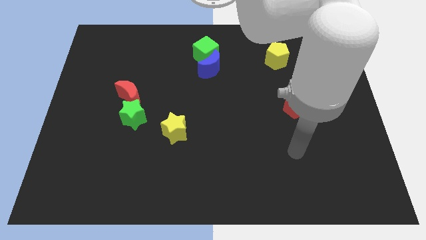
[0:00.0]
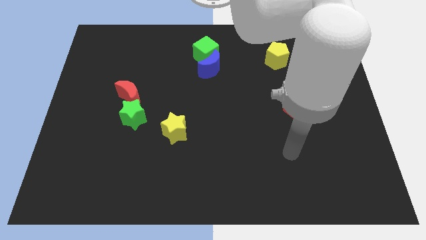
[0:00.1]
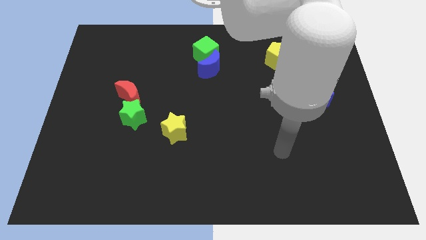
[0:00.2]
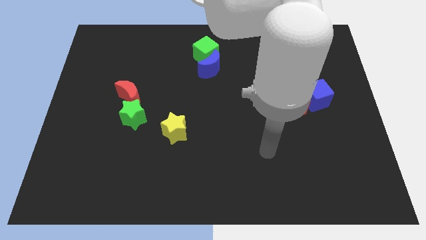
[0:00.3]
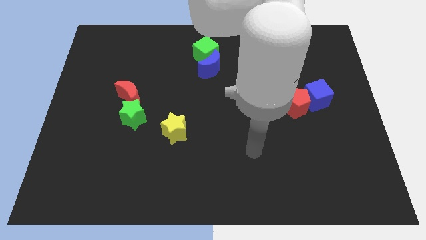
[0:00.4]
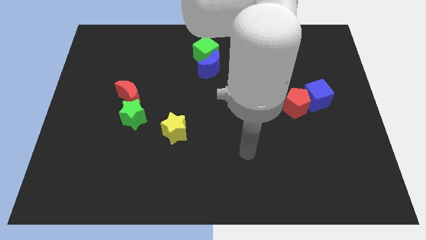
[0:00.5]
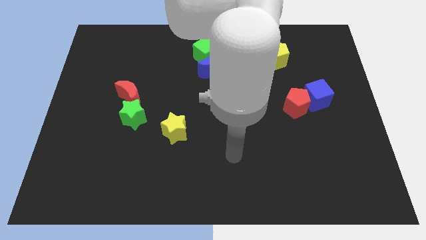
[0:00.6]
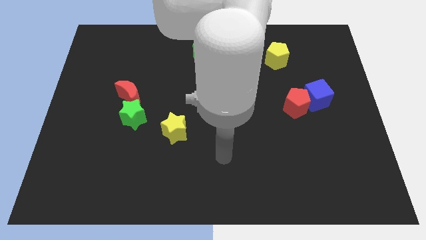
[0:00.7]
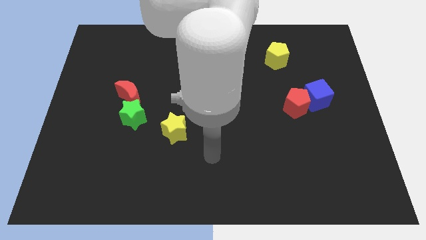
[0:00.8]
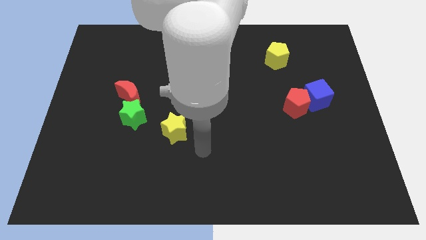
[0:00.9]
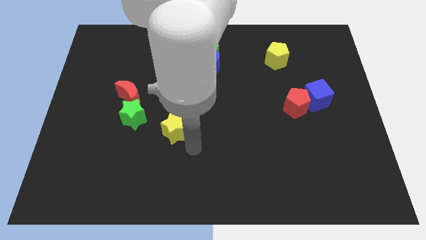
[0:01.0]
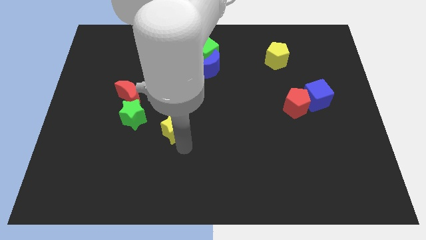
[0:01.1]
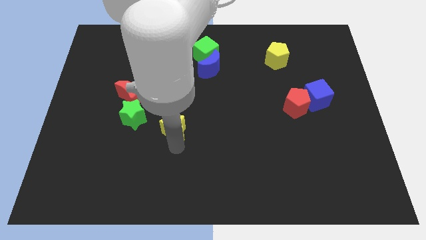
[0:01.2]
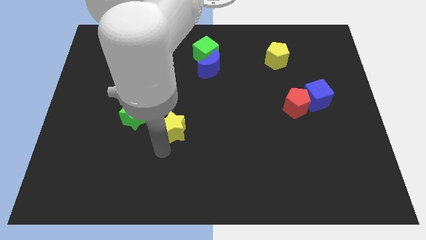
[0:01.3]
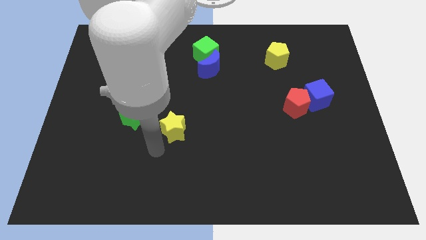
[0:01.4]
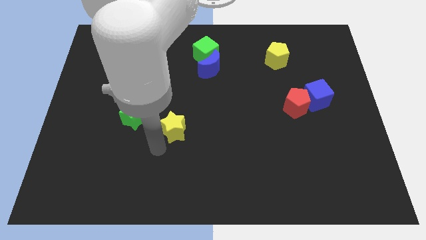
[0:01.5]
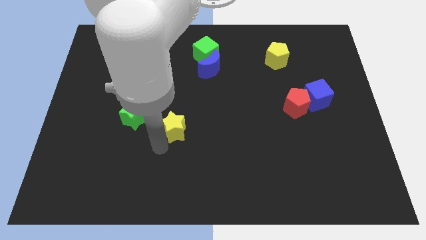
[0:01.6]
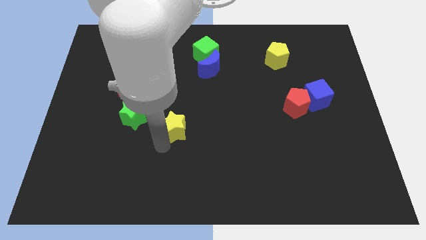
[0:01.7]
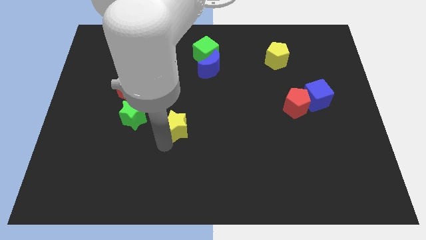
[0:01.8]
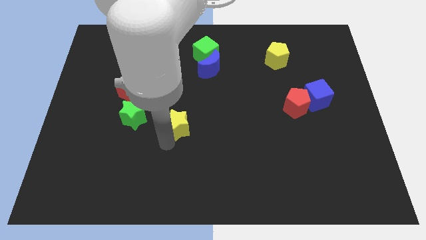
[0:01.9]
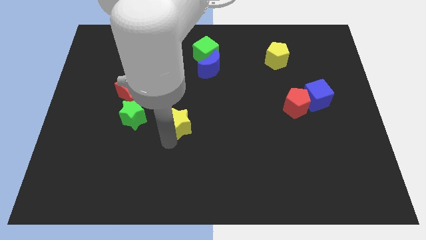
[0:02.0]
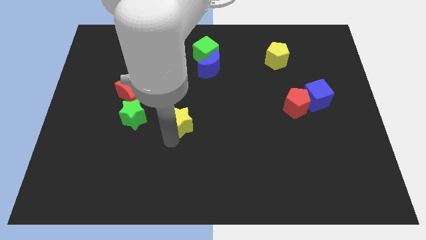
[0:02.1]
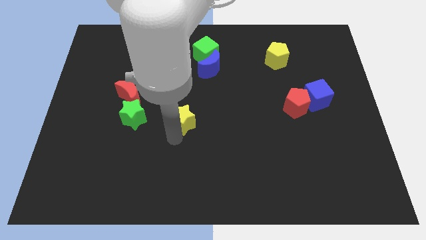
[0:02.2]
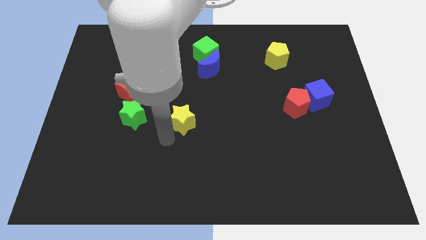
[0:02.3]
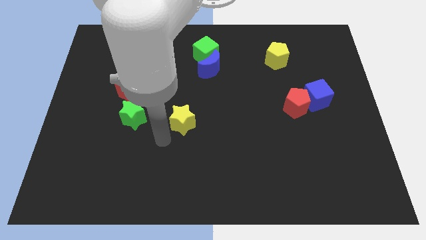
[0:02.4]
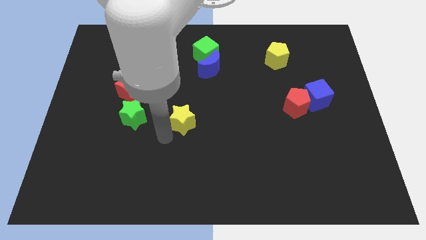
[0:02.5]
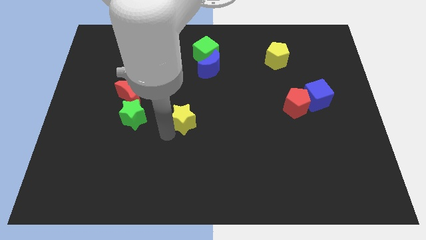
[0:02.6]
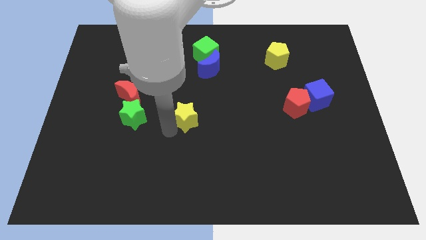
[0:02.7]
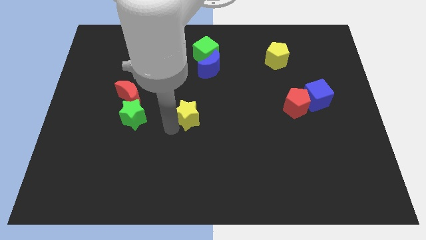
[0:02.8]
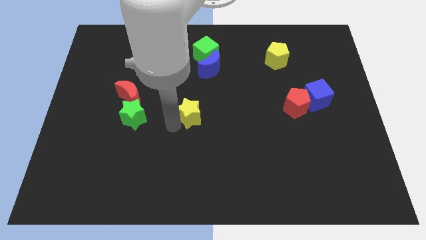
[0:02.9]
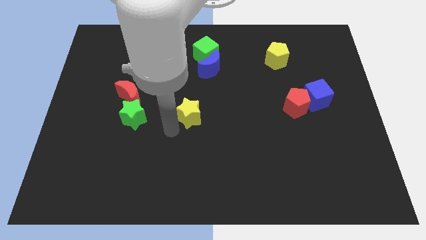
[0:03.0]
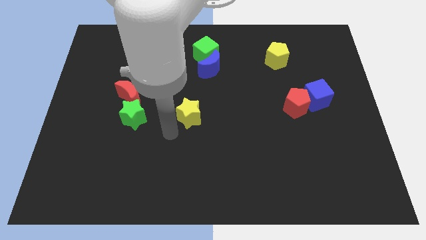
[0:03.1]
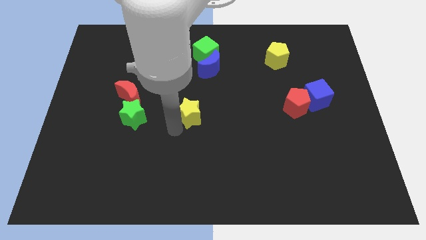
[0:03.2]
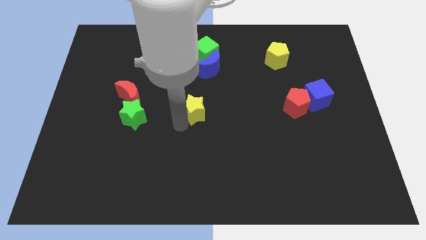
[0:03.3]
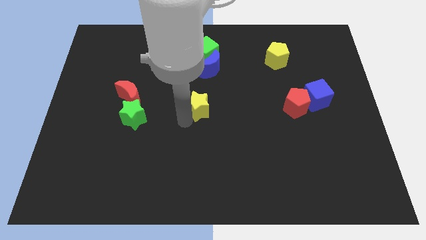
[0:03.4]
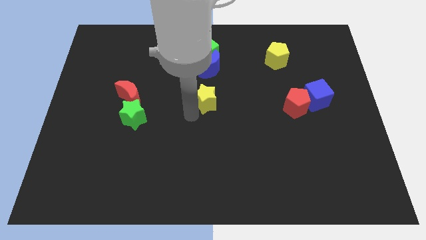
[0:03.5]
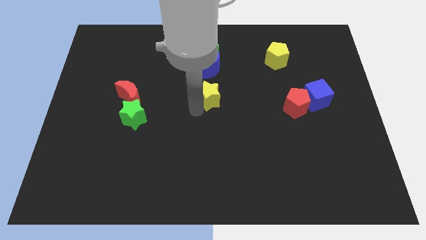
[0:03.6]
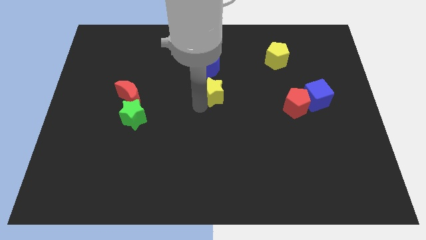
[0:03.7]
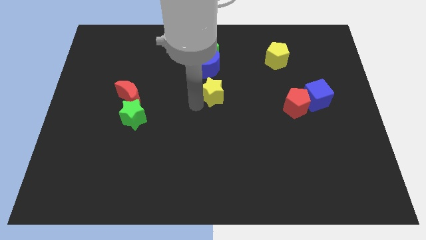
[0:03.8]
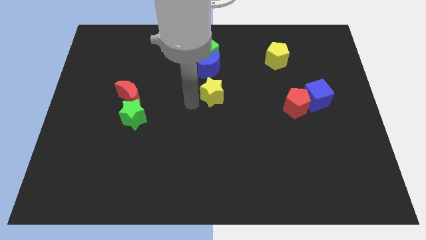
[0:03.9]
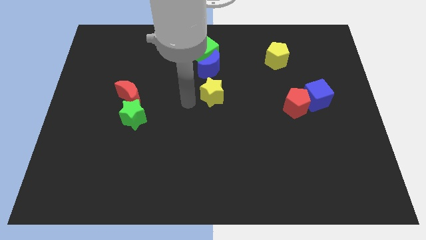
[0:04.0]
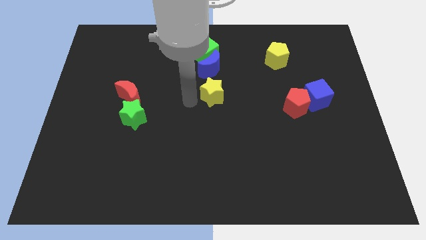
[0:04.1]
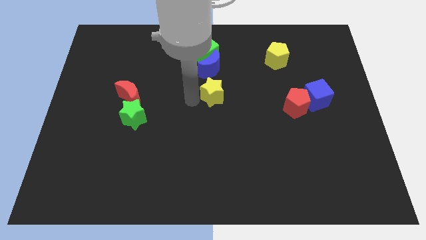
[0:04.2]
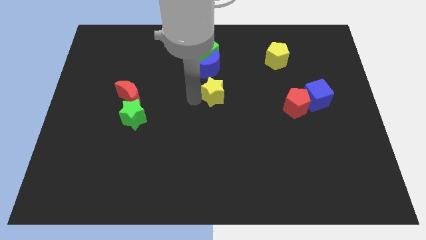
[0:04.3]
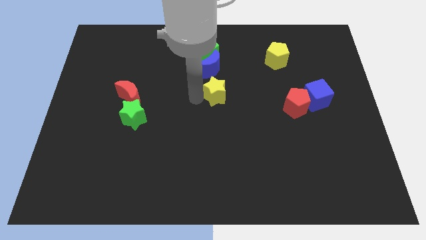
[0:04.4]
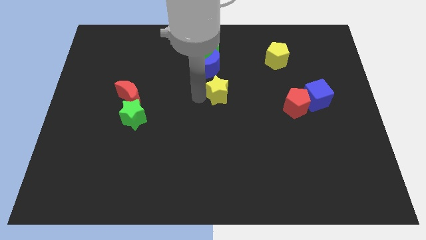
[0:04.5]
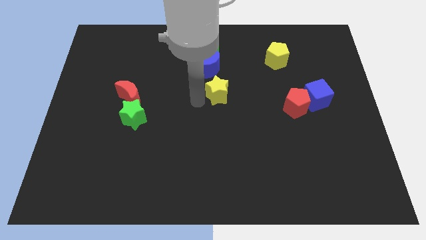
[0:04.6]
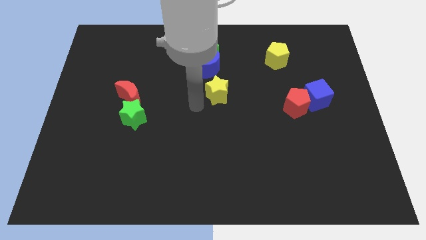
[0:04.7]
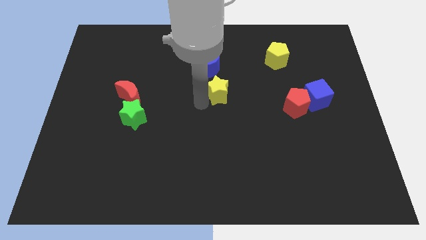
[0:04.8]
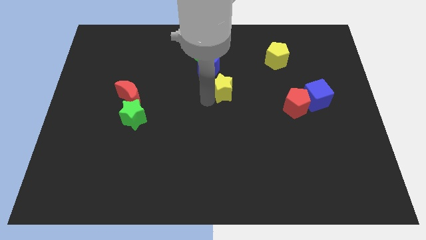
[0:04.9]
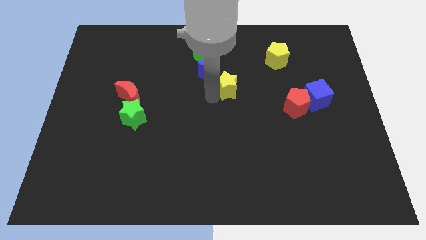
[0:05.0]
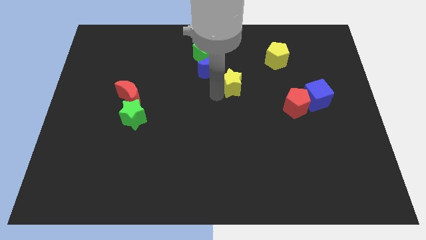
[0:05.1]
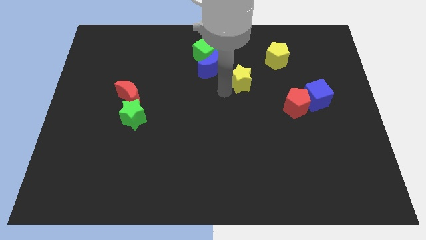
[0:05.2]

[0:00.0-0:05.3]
push the yellow star just right of the blue moon

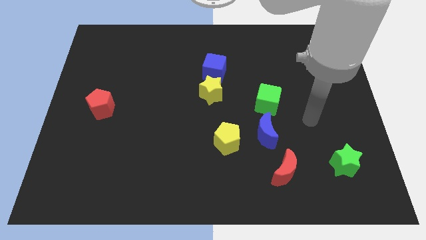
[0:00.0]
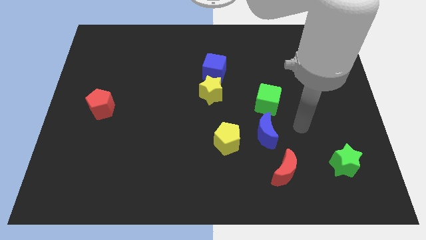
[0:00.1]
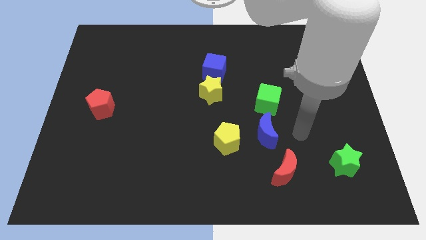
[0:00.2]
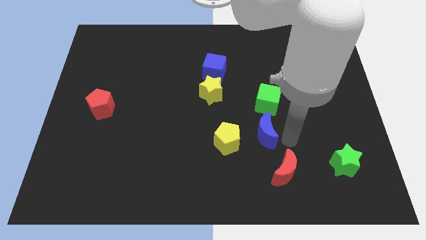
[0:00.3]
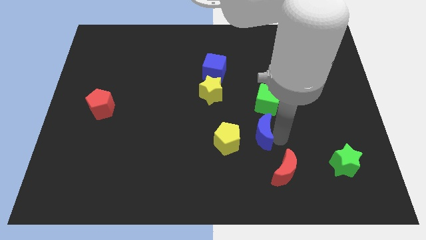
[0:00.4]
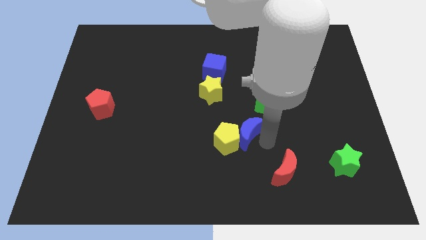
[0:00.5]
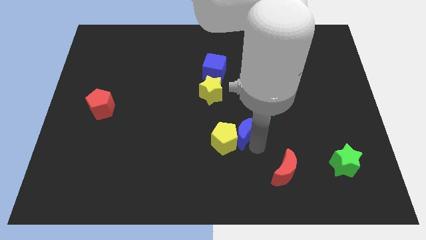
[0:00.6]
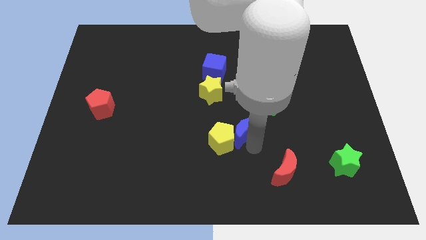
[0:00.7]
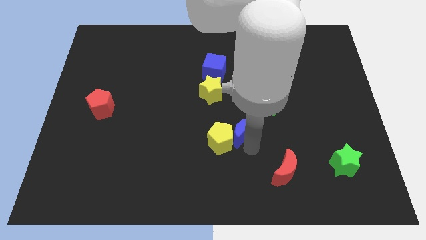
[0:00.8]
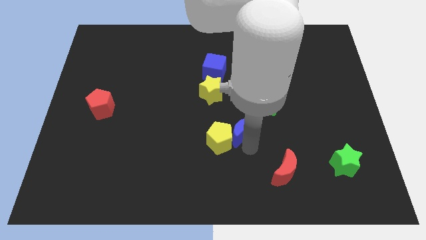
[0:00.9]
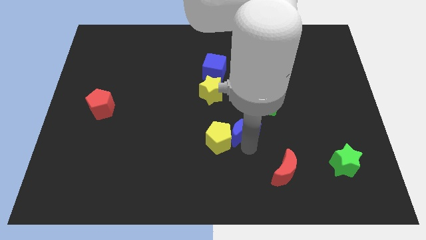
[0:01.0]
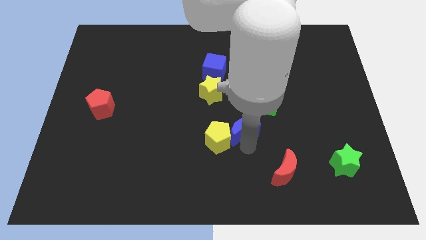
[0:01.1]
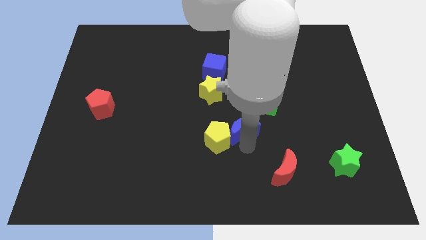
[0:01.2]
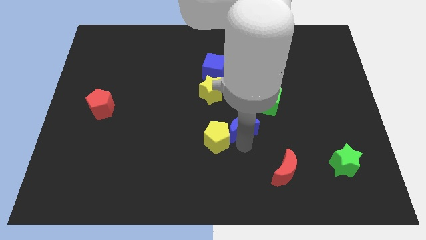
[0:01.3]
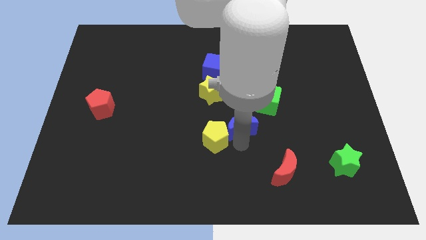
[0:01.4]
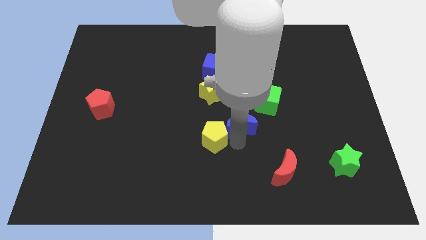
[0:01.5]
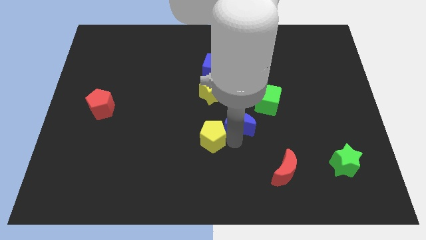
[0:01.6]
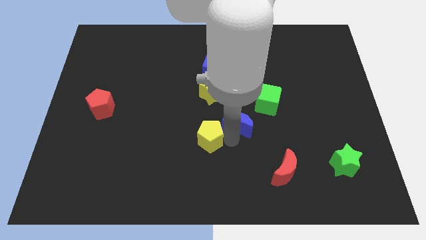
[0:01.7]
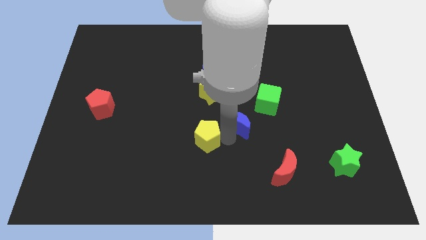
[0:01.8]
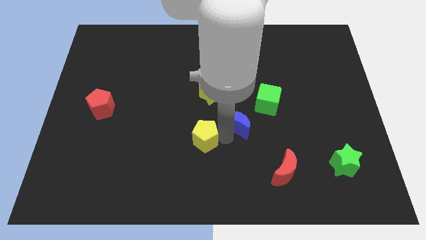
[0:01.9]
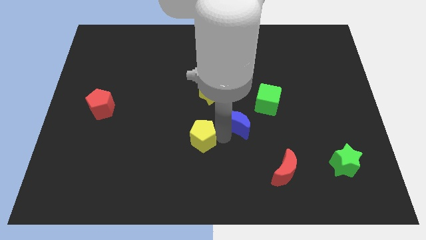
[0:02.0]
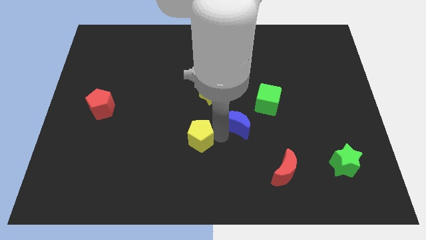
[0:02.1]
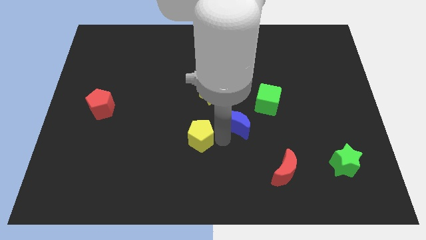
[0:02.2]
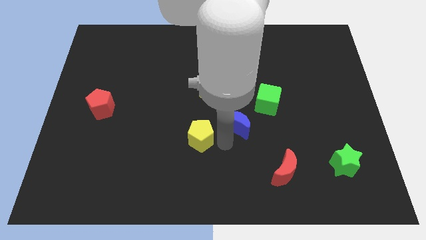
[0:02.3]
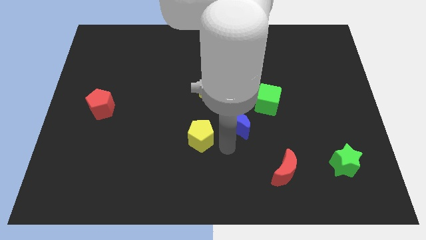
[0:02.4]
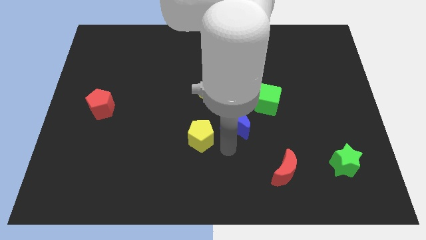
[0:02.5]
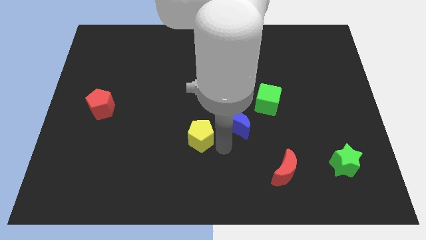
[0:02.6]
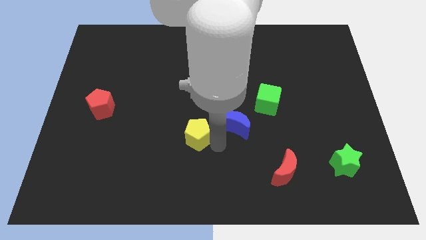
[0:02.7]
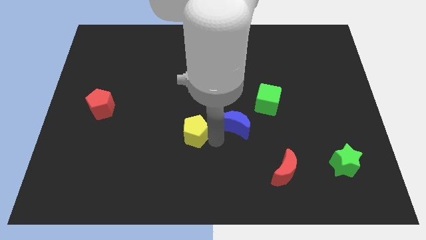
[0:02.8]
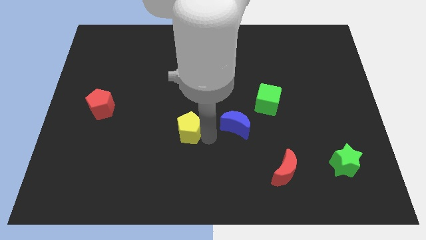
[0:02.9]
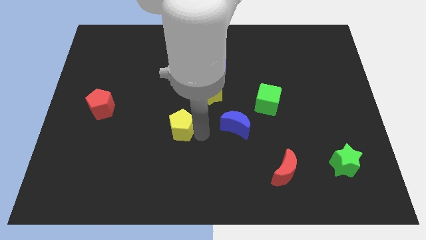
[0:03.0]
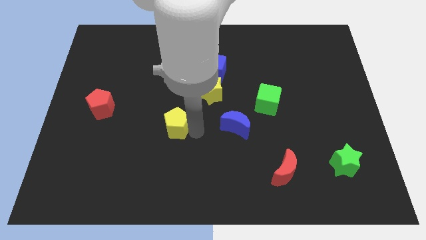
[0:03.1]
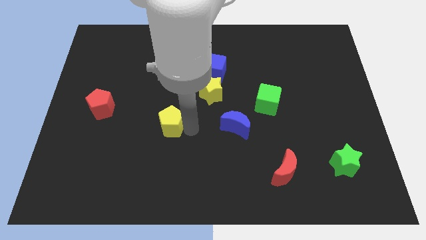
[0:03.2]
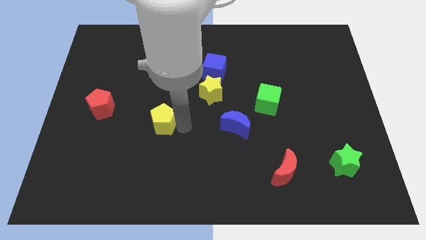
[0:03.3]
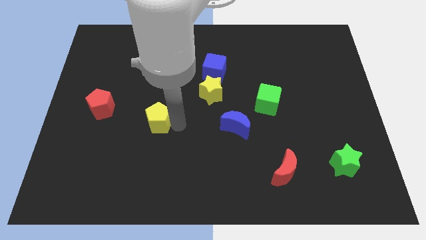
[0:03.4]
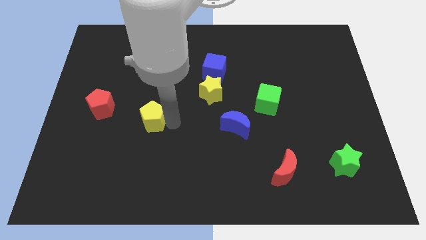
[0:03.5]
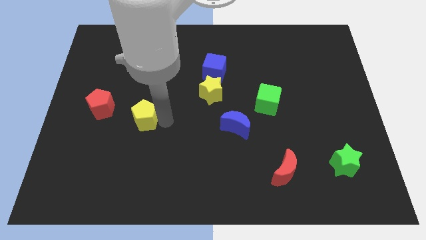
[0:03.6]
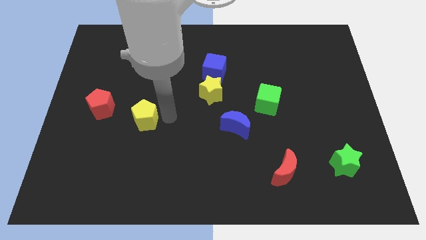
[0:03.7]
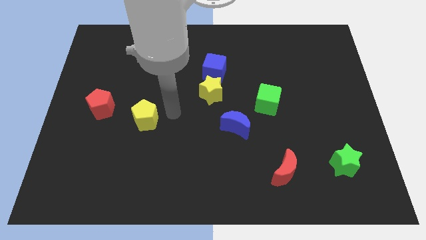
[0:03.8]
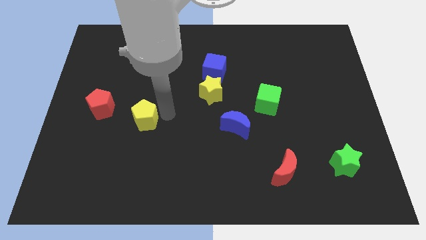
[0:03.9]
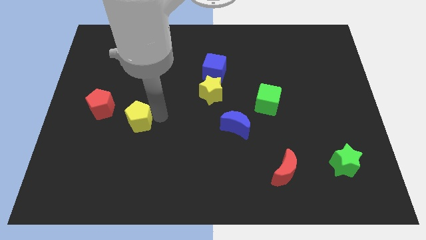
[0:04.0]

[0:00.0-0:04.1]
put the yellow pentagon to the bottom right of the red pentagon
